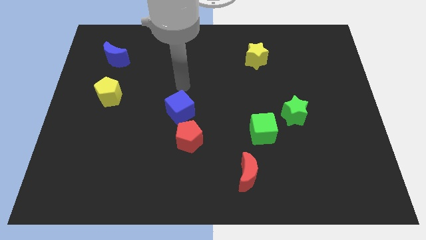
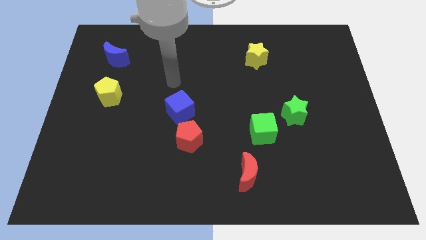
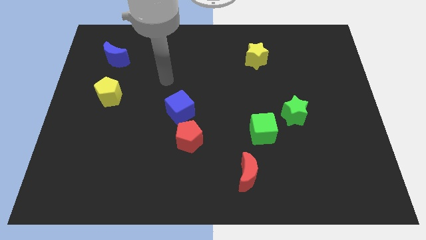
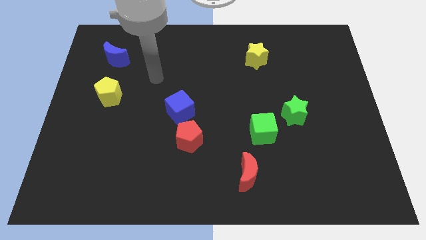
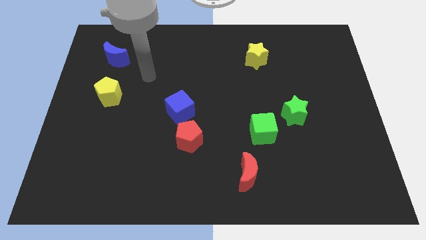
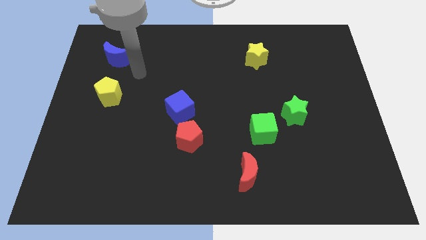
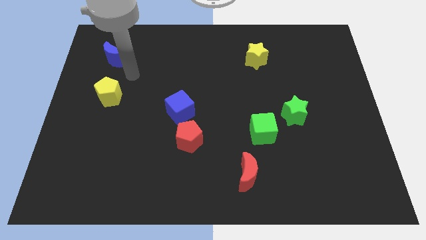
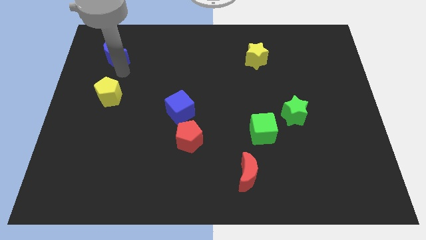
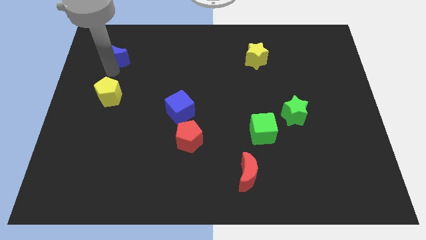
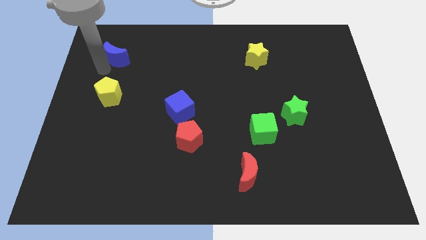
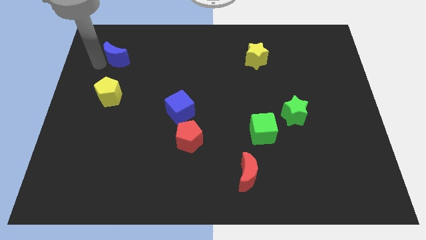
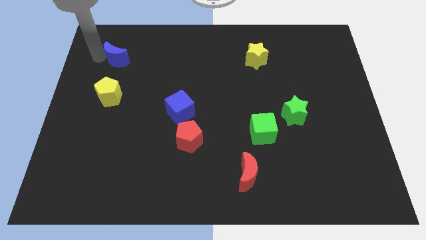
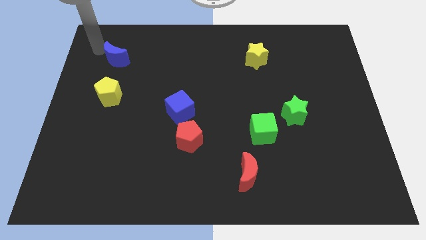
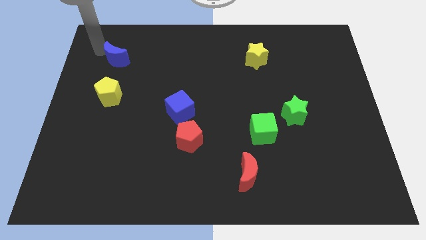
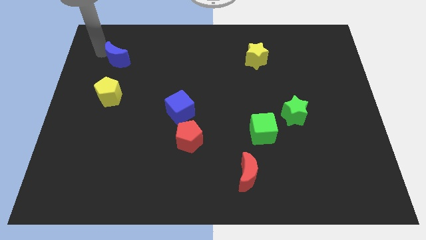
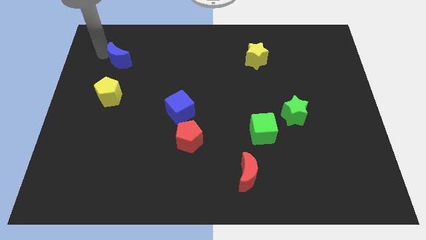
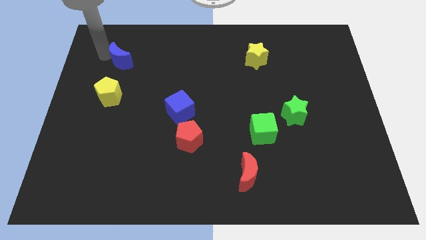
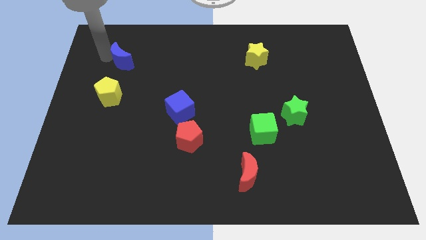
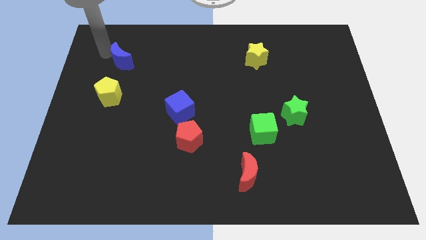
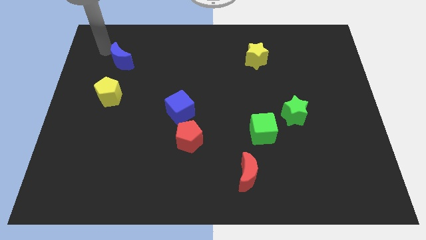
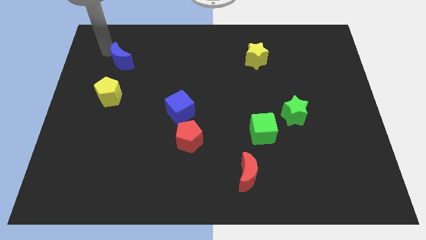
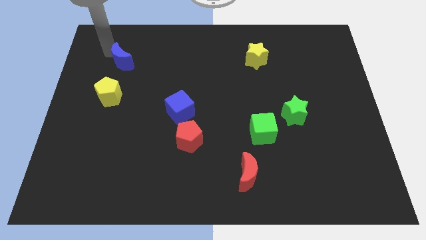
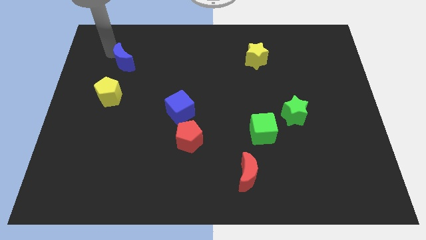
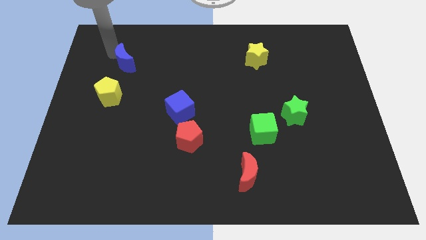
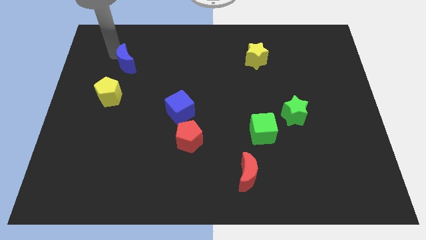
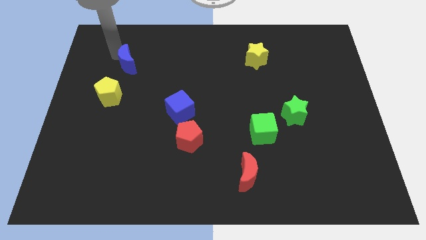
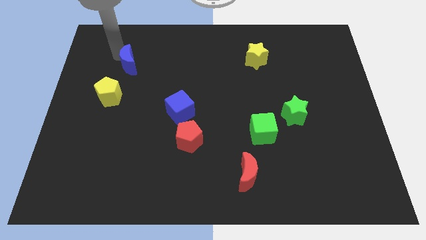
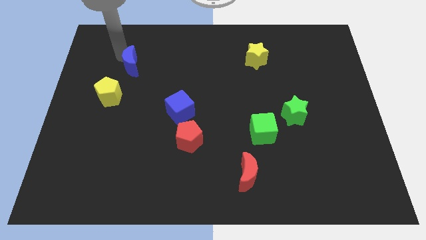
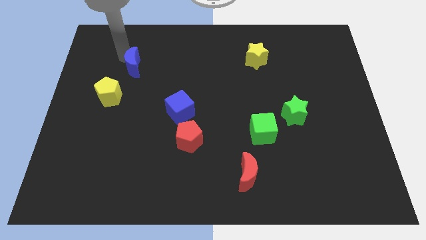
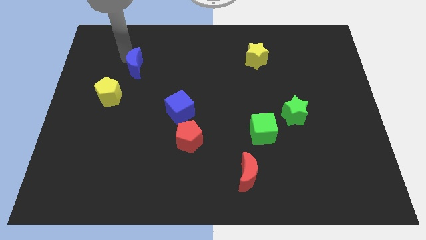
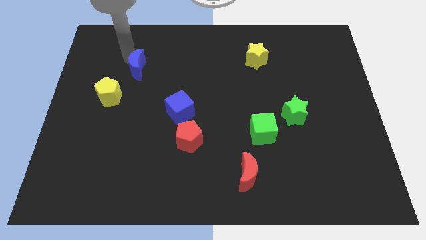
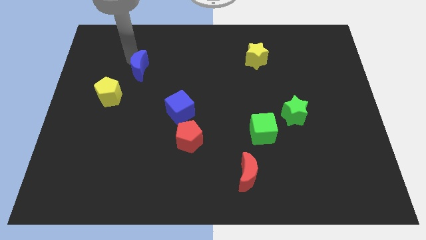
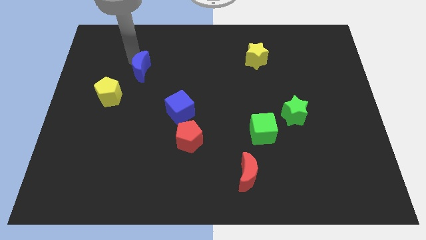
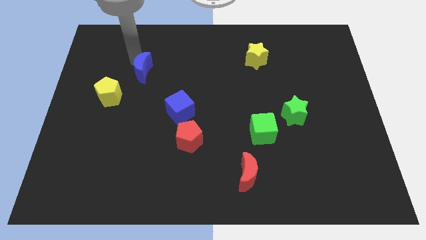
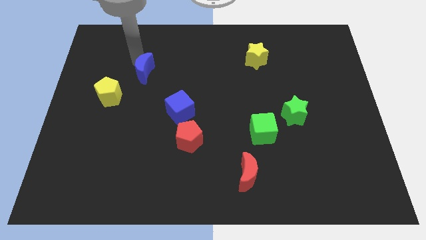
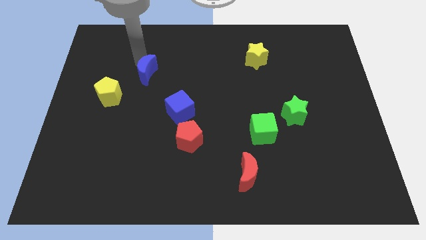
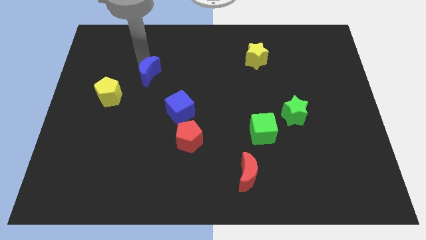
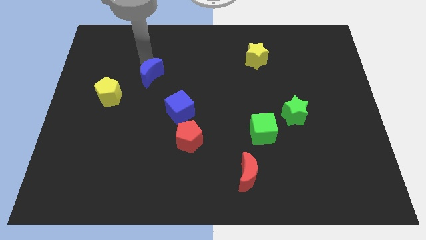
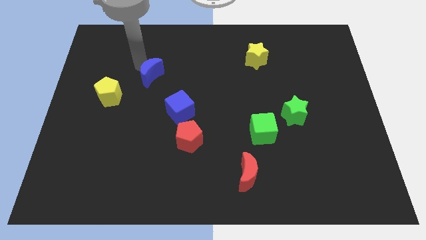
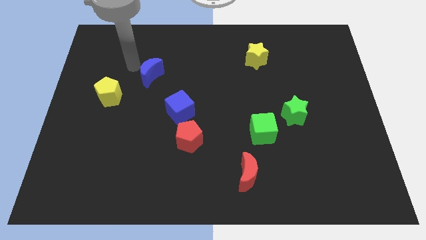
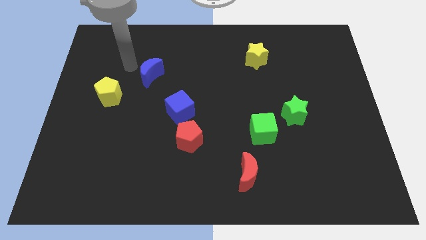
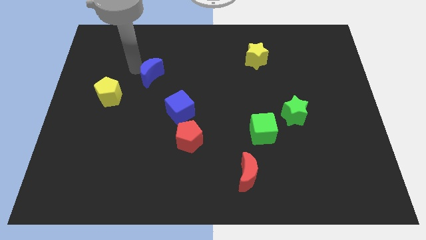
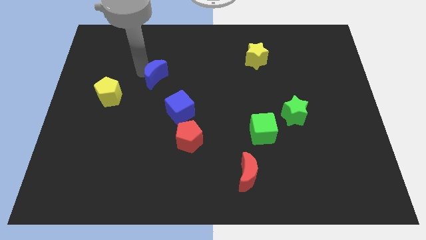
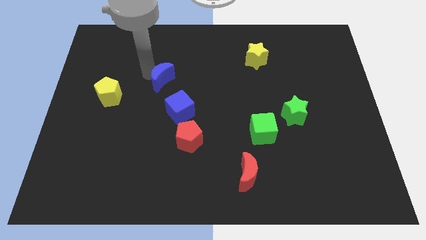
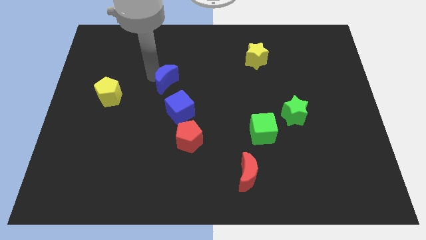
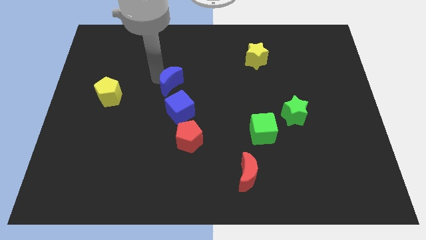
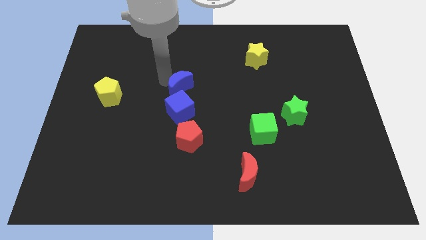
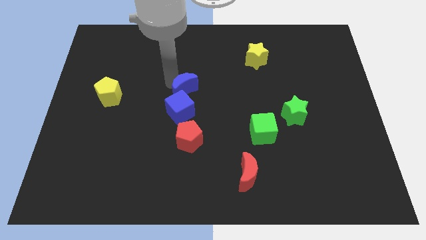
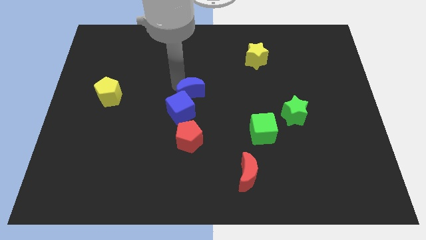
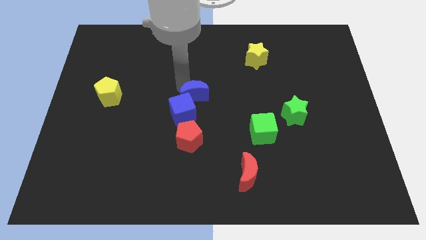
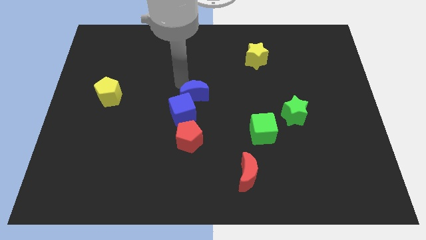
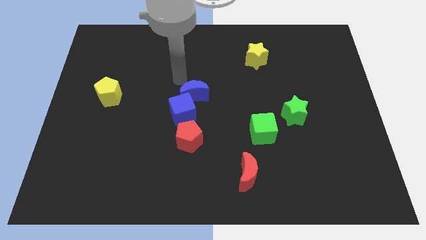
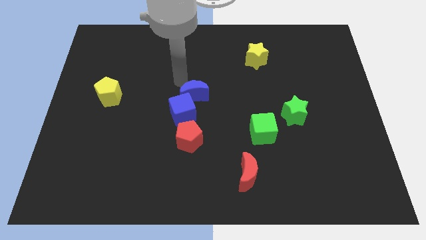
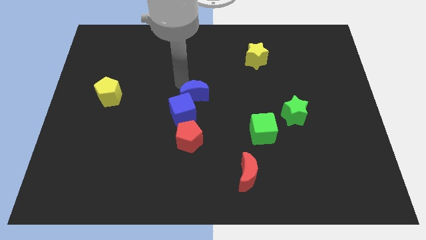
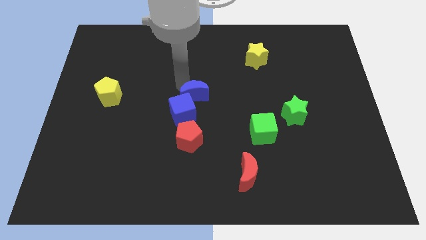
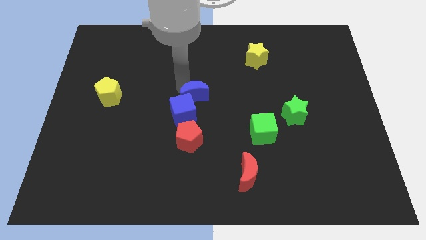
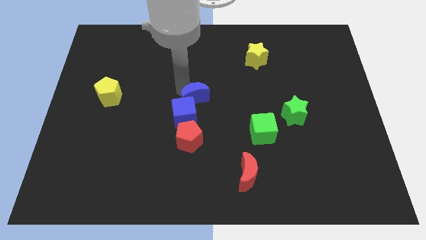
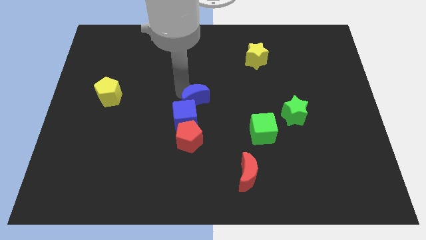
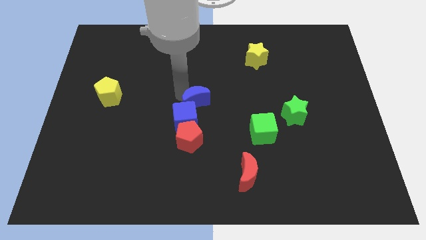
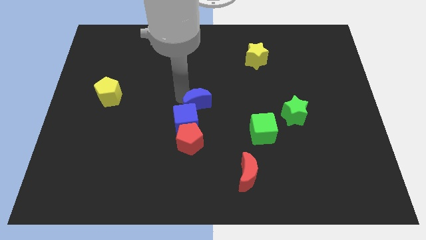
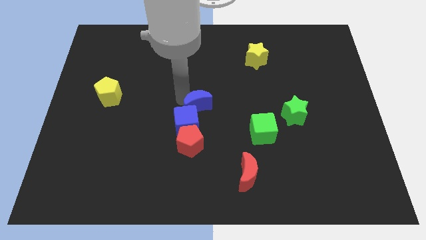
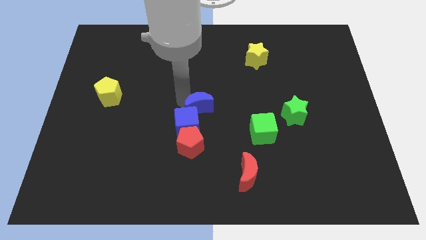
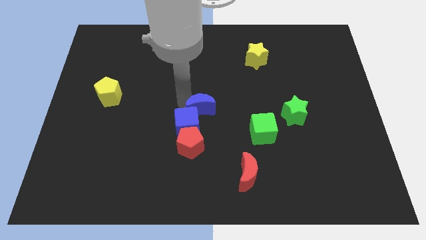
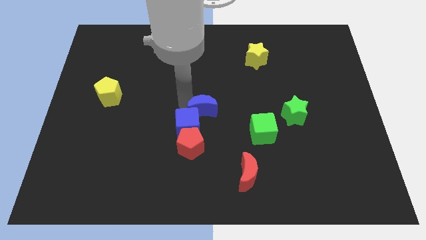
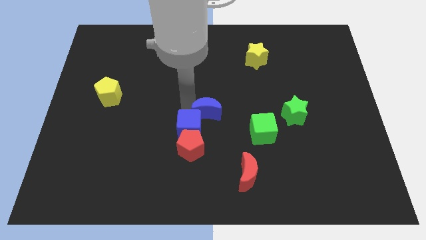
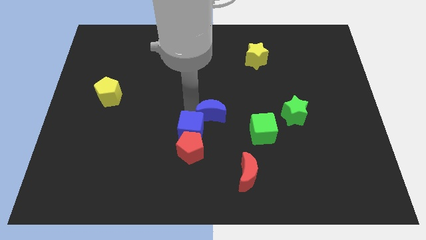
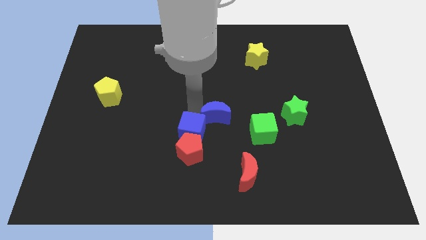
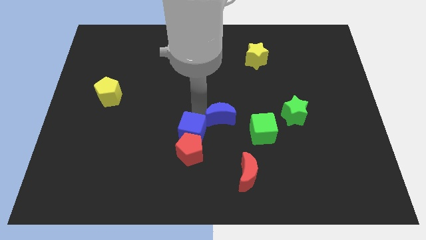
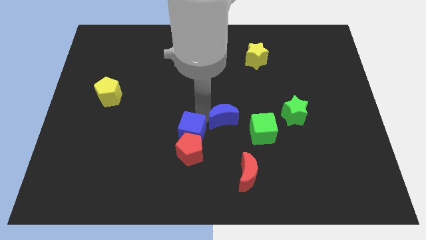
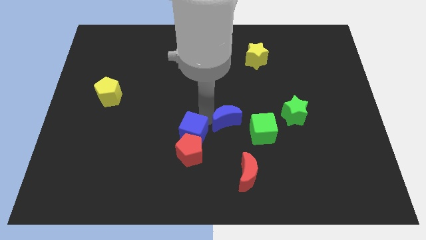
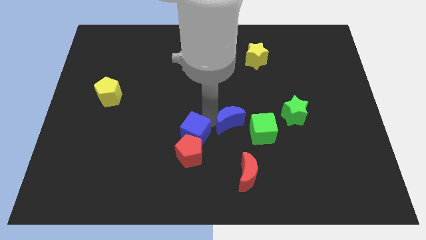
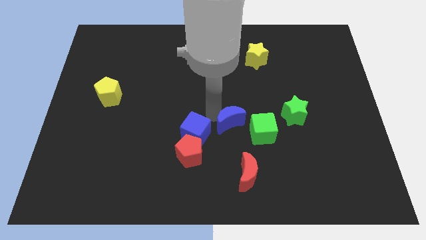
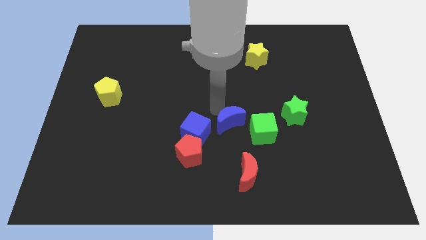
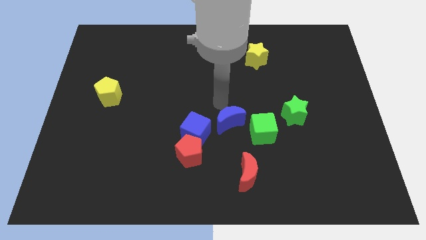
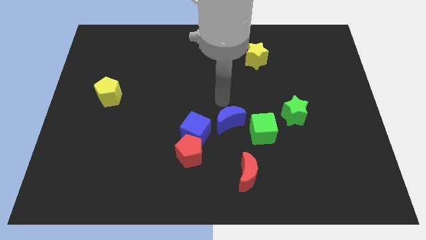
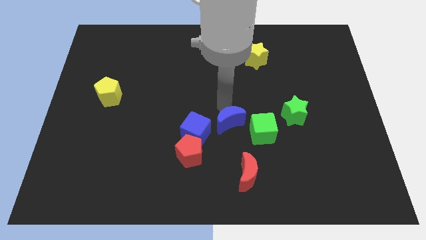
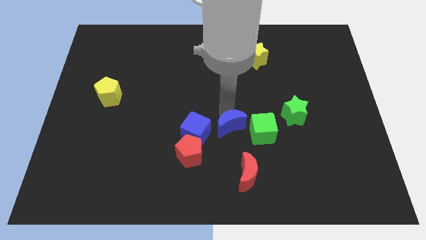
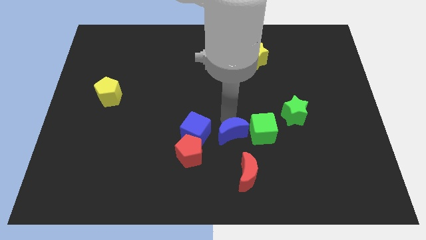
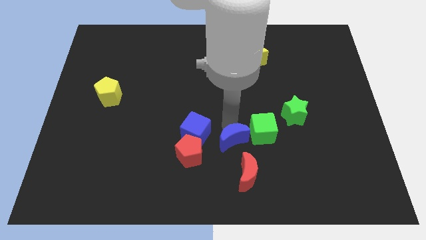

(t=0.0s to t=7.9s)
push the blue moon just right of the red pentagon
